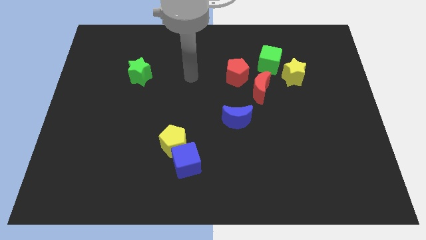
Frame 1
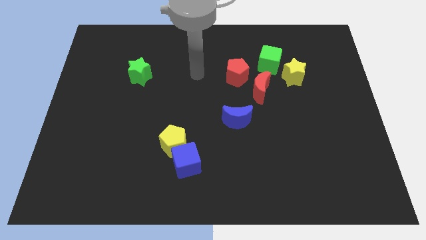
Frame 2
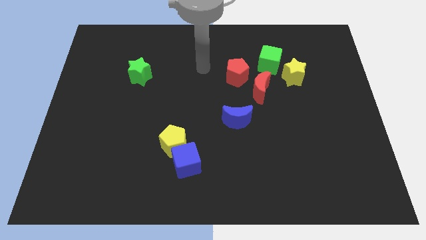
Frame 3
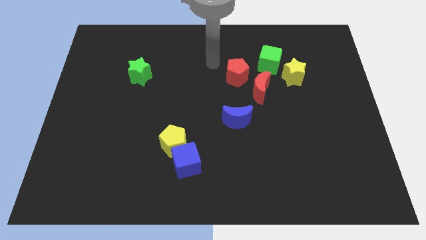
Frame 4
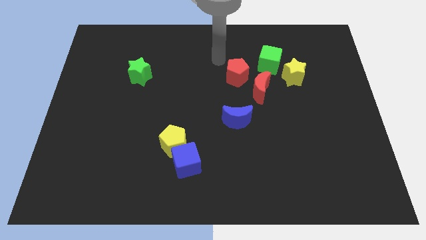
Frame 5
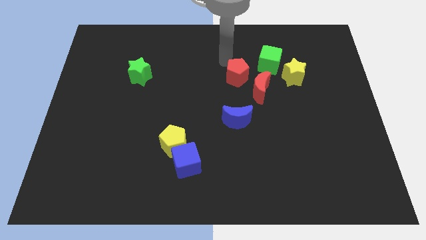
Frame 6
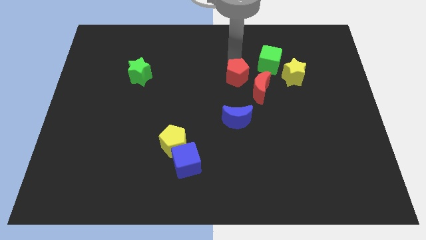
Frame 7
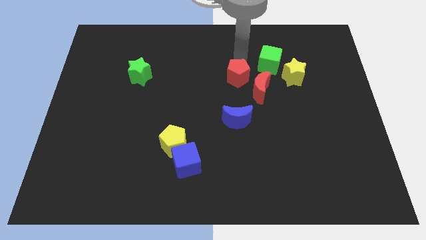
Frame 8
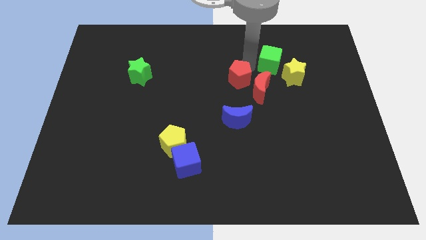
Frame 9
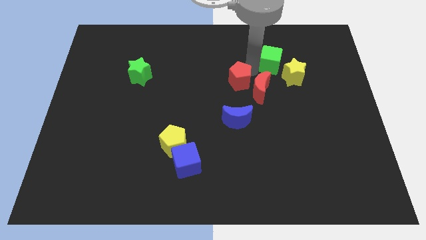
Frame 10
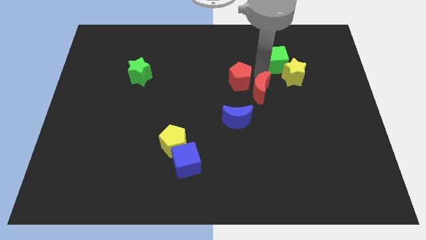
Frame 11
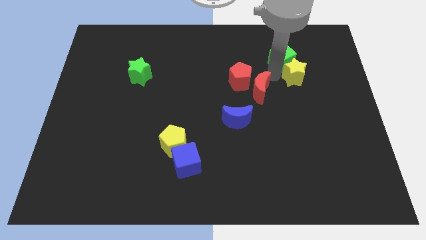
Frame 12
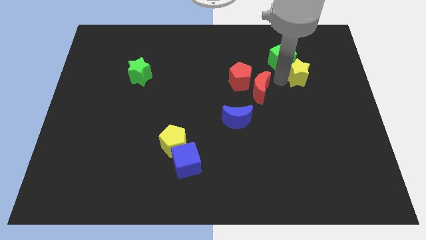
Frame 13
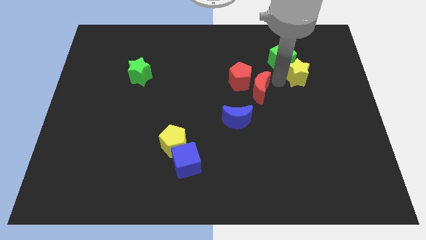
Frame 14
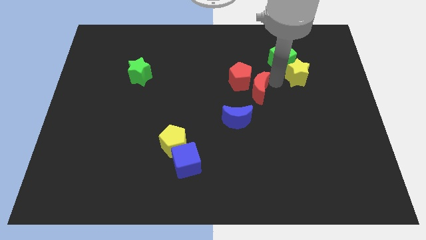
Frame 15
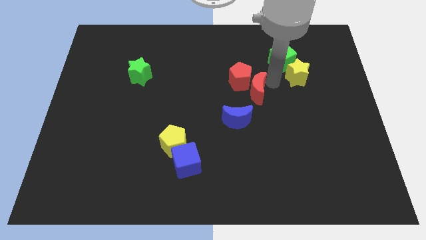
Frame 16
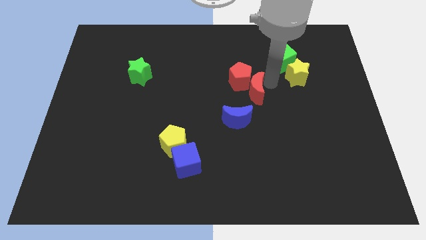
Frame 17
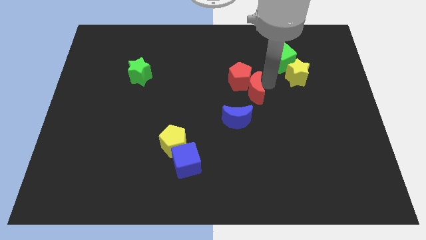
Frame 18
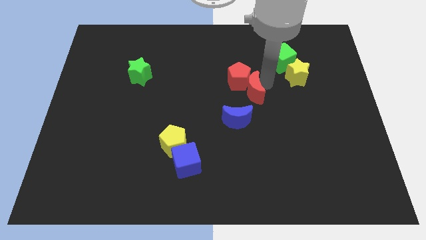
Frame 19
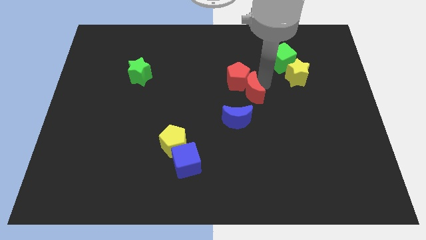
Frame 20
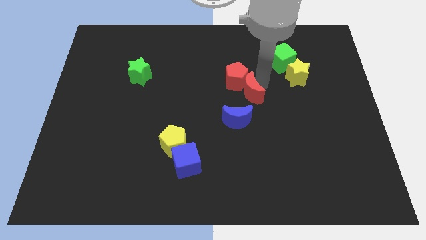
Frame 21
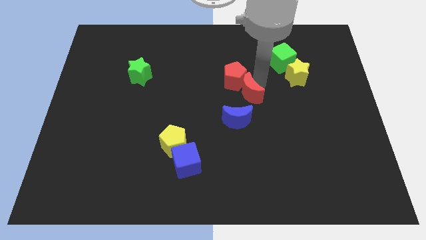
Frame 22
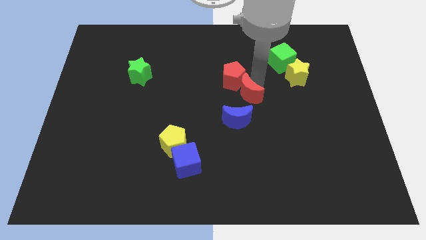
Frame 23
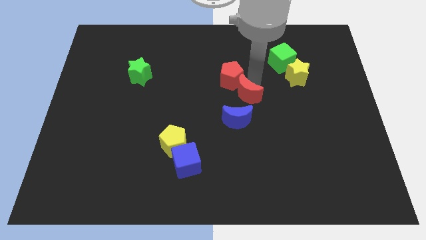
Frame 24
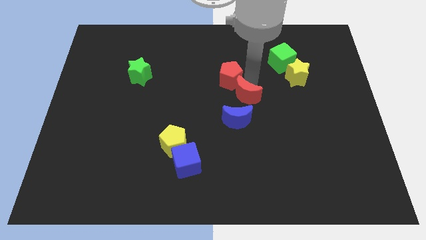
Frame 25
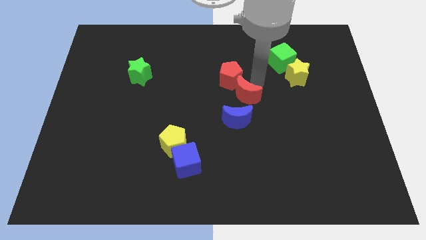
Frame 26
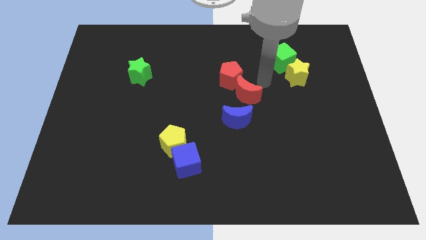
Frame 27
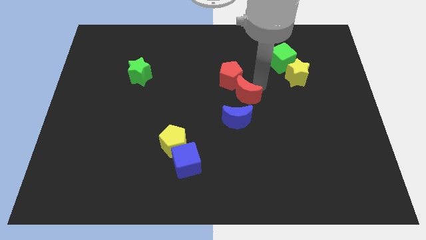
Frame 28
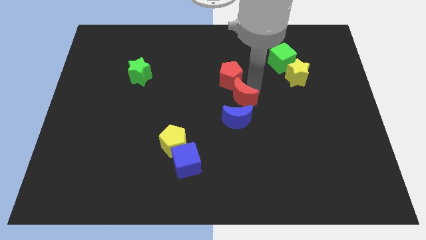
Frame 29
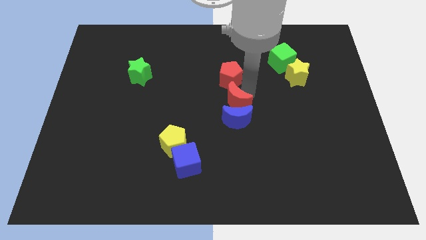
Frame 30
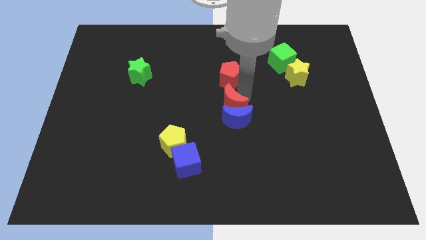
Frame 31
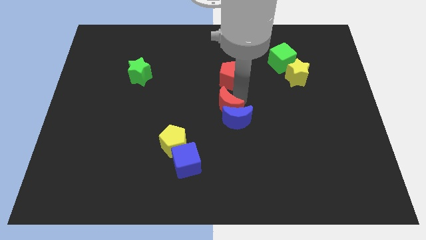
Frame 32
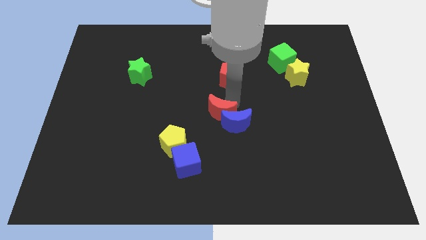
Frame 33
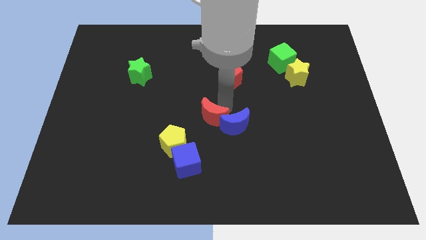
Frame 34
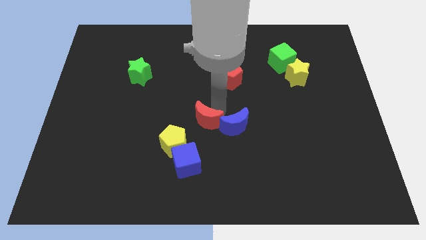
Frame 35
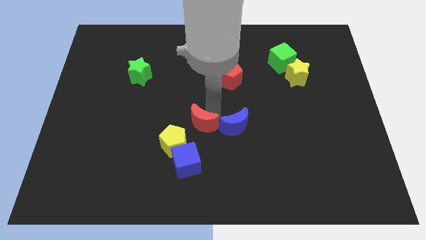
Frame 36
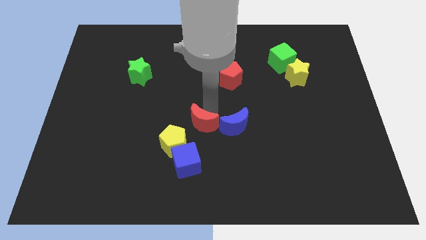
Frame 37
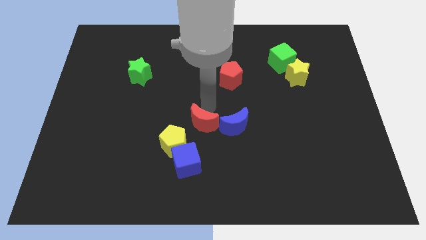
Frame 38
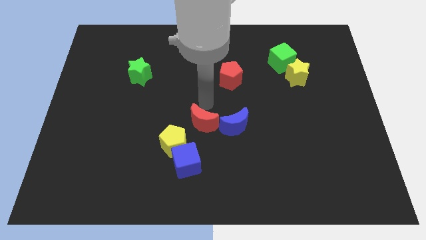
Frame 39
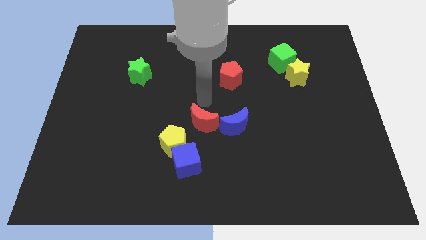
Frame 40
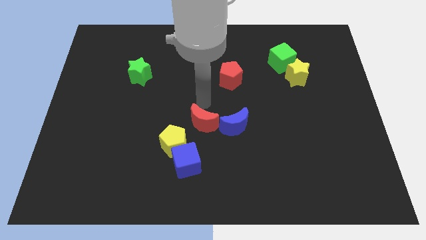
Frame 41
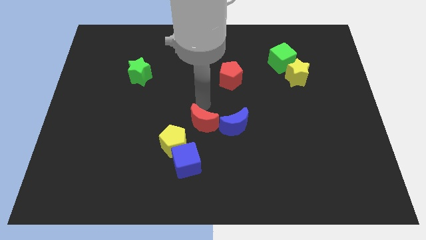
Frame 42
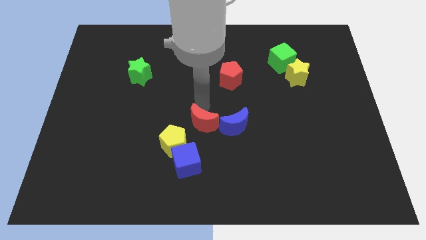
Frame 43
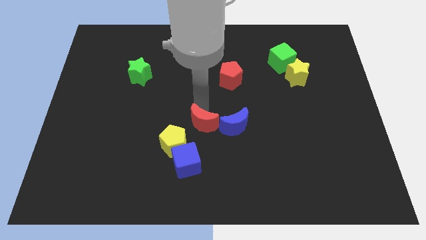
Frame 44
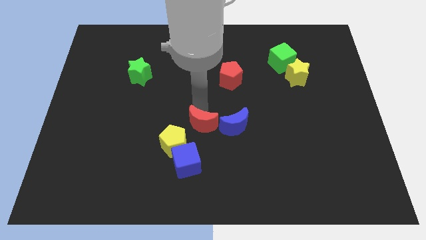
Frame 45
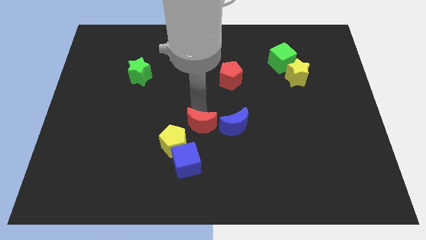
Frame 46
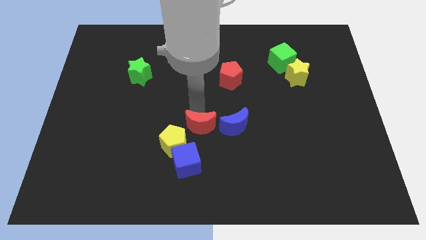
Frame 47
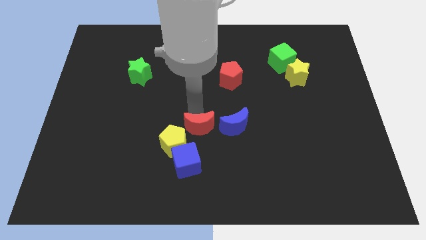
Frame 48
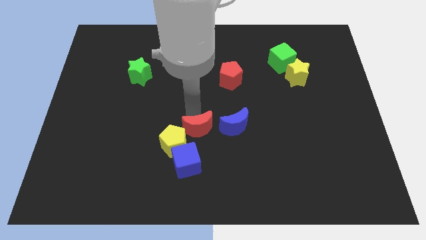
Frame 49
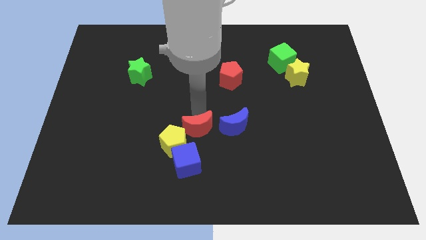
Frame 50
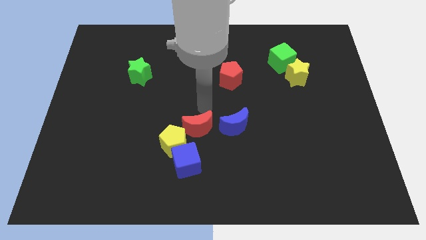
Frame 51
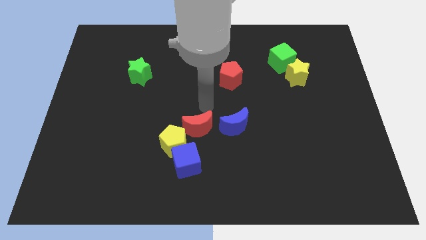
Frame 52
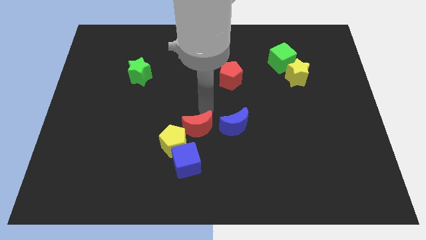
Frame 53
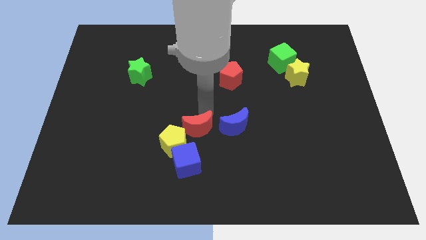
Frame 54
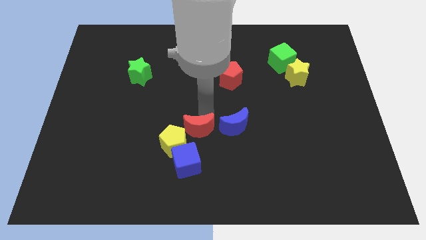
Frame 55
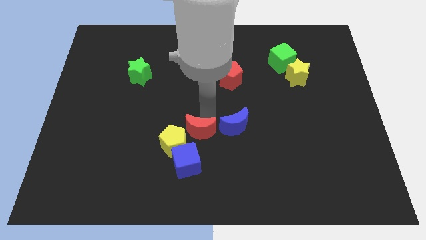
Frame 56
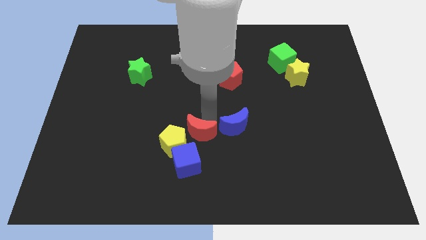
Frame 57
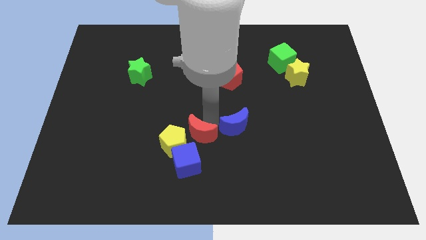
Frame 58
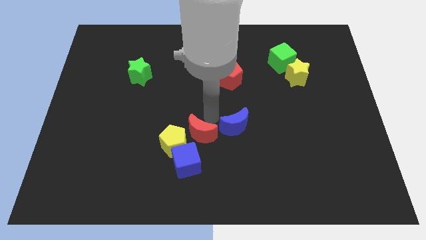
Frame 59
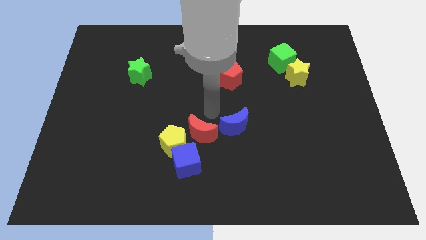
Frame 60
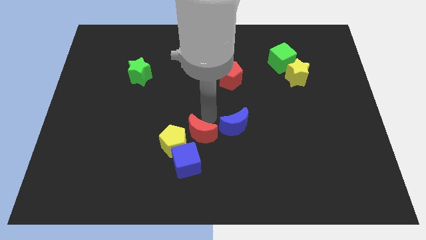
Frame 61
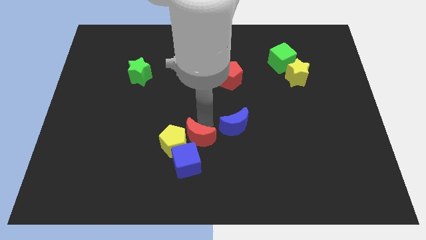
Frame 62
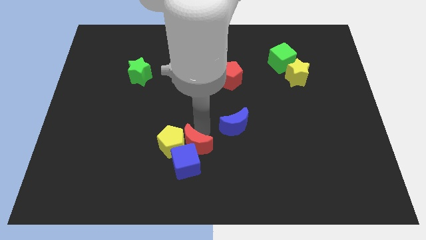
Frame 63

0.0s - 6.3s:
push the red moon to the blue cube
